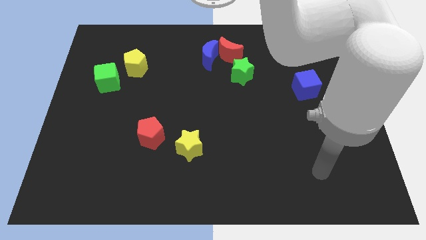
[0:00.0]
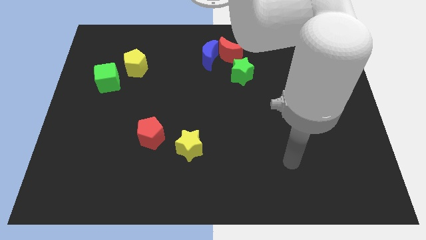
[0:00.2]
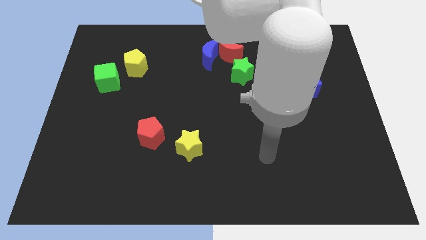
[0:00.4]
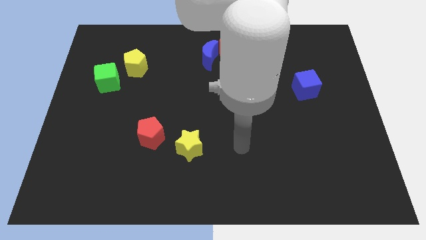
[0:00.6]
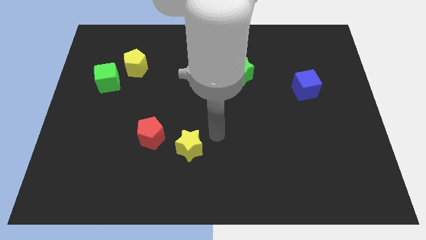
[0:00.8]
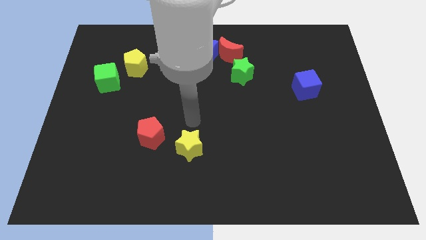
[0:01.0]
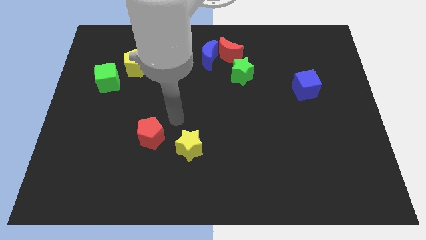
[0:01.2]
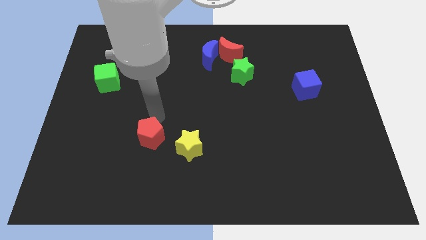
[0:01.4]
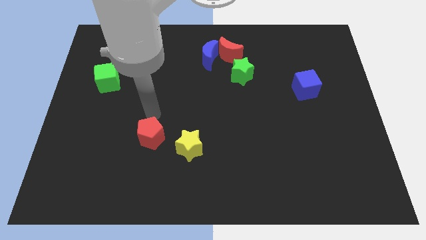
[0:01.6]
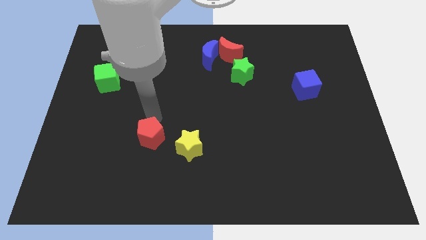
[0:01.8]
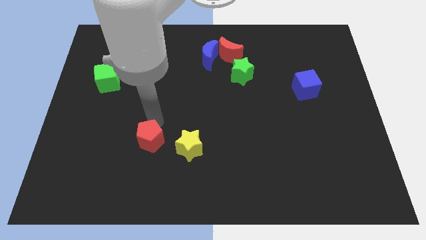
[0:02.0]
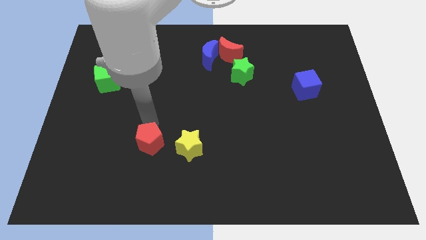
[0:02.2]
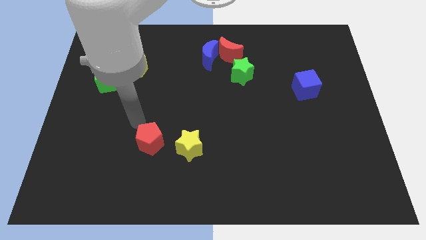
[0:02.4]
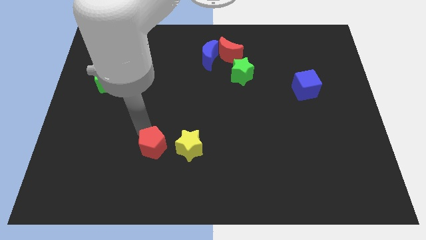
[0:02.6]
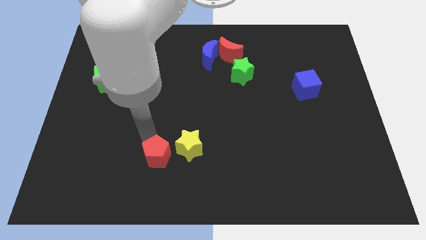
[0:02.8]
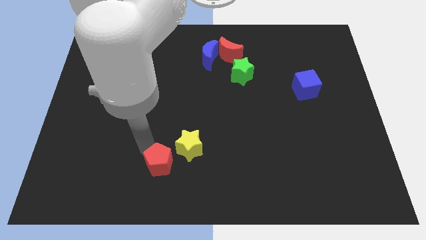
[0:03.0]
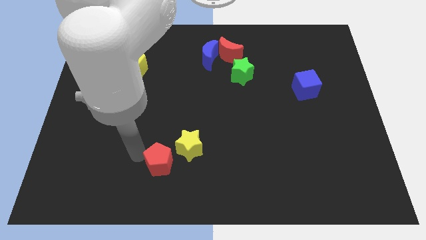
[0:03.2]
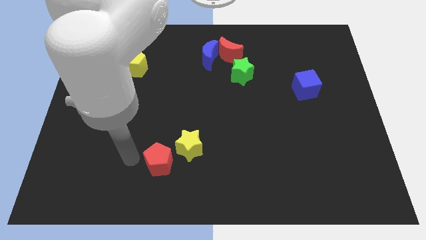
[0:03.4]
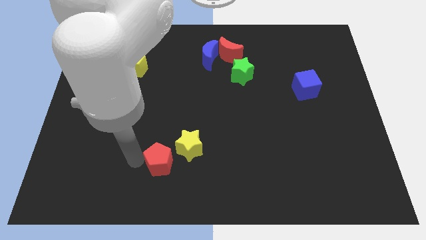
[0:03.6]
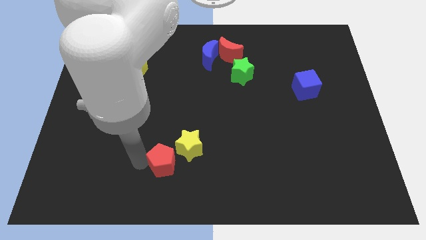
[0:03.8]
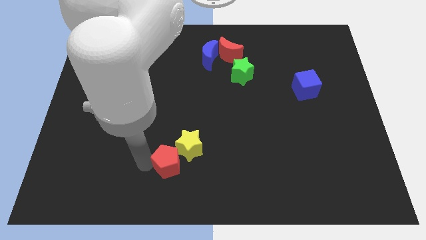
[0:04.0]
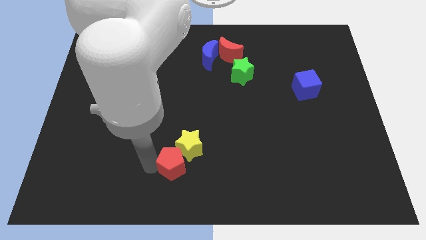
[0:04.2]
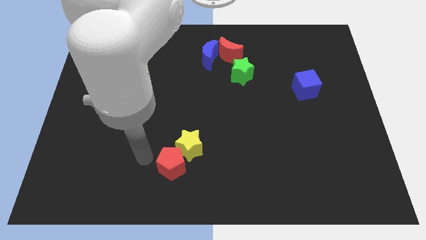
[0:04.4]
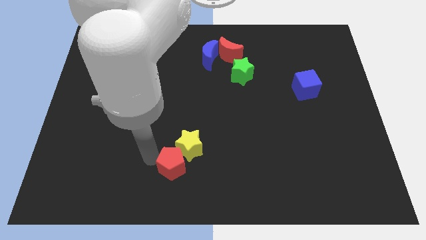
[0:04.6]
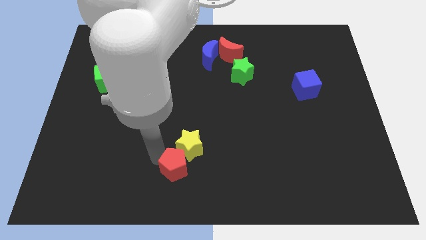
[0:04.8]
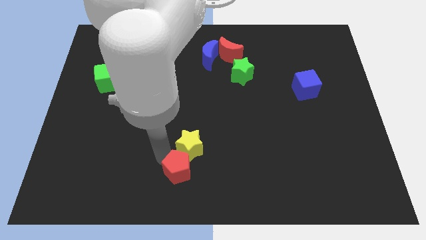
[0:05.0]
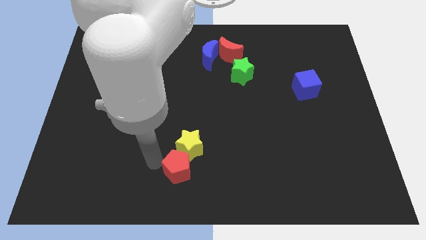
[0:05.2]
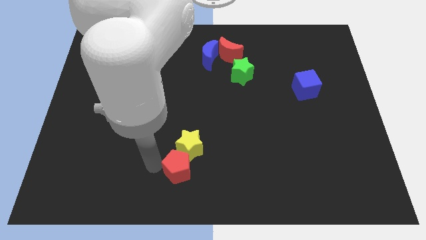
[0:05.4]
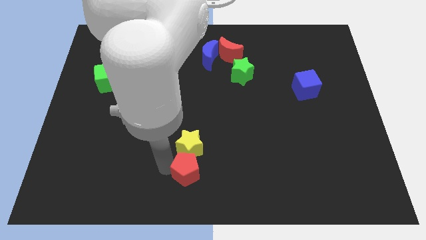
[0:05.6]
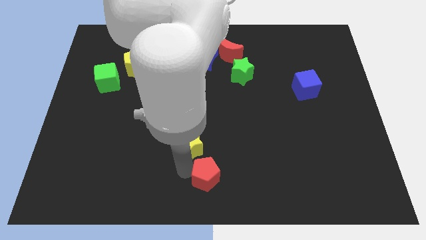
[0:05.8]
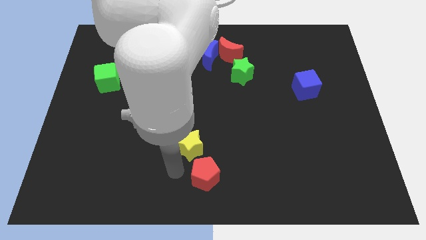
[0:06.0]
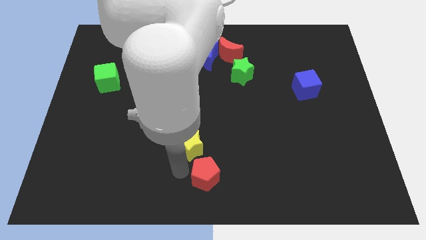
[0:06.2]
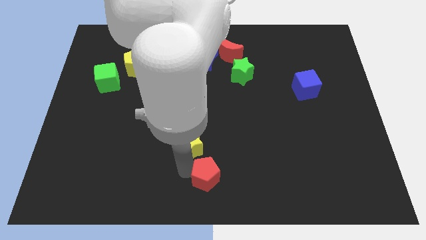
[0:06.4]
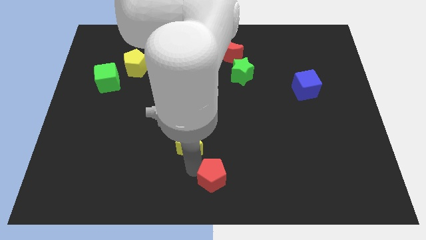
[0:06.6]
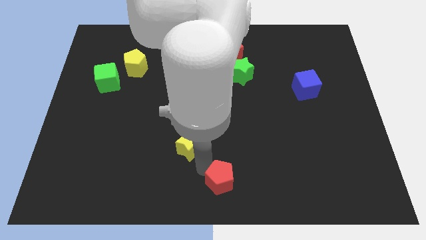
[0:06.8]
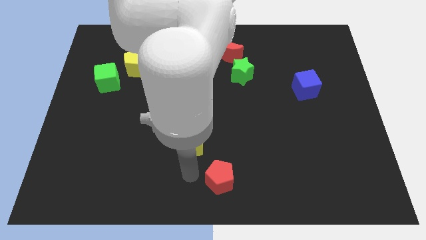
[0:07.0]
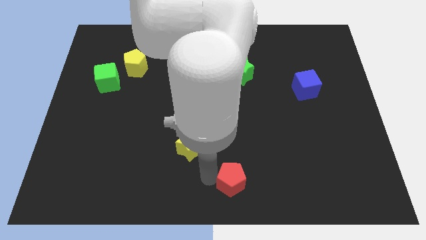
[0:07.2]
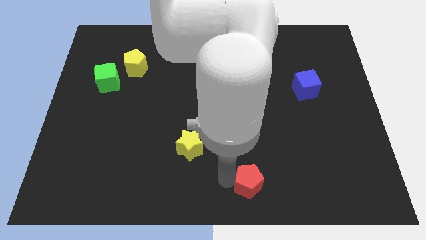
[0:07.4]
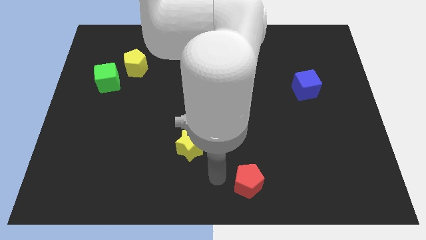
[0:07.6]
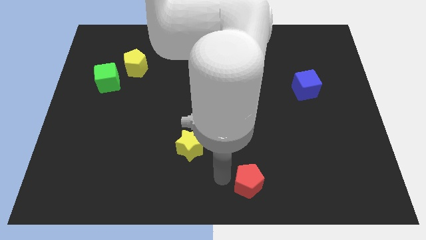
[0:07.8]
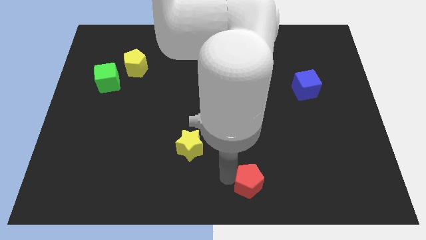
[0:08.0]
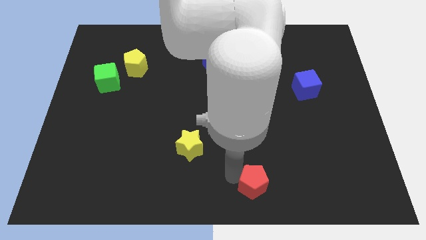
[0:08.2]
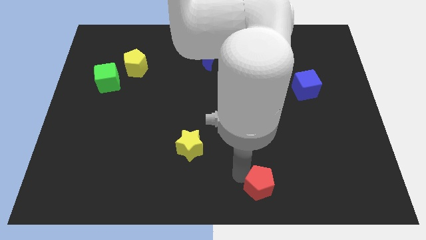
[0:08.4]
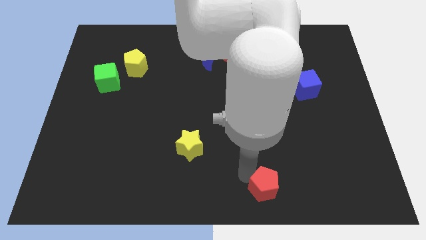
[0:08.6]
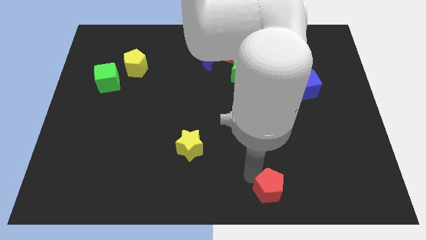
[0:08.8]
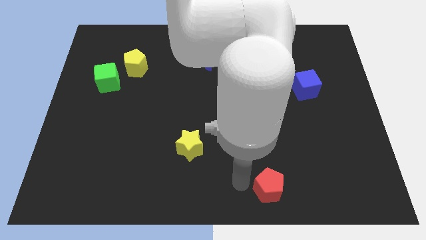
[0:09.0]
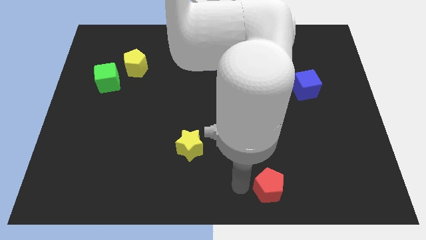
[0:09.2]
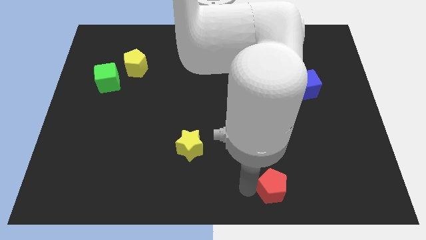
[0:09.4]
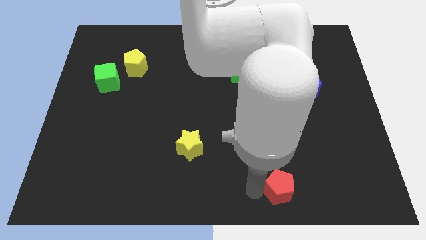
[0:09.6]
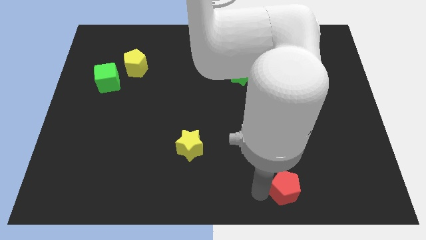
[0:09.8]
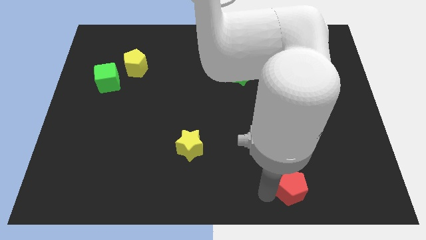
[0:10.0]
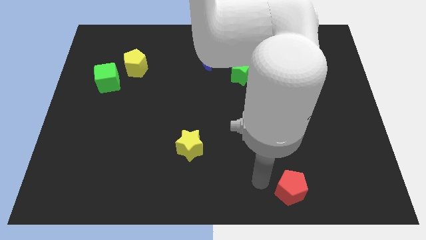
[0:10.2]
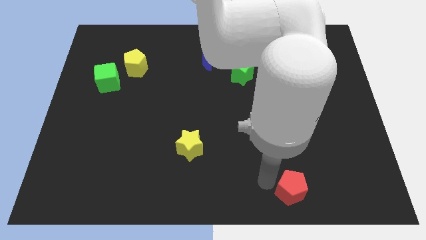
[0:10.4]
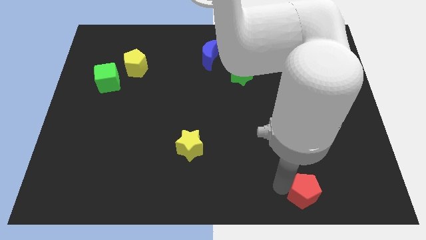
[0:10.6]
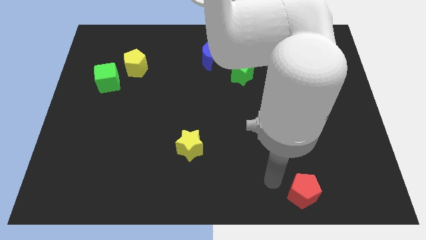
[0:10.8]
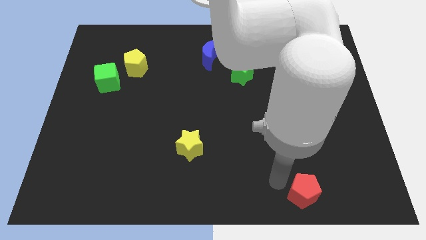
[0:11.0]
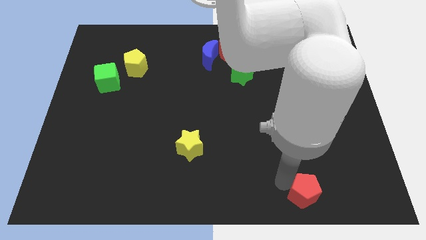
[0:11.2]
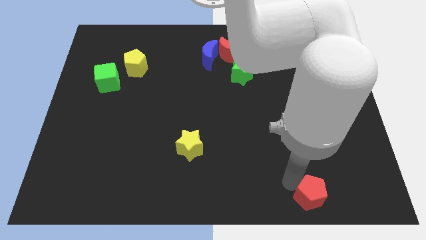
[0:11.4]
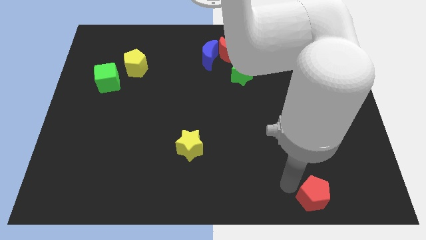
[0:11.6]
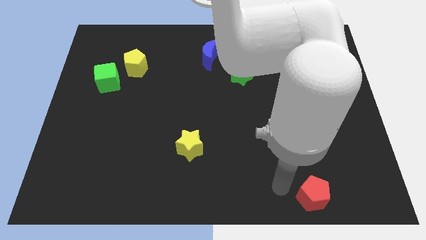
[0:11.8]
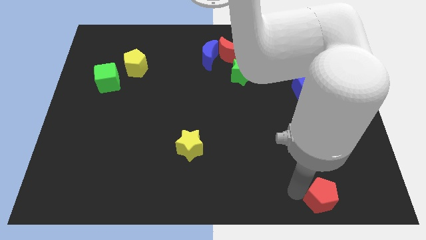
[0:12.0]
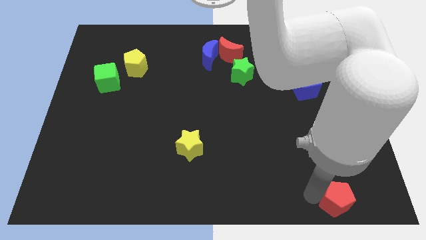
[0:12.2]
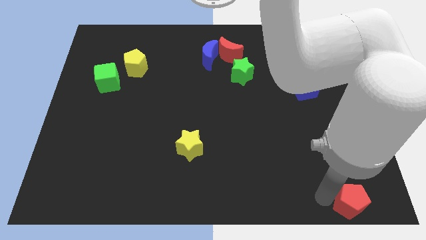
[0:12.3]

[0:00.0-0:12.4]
put the red pentagon to the bottom right corner
